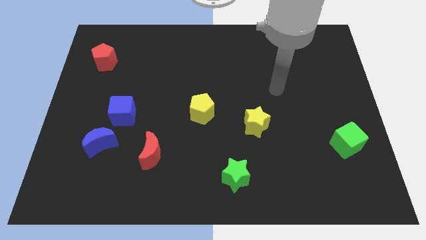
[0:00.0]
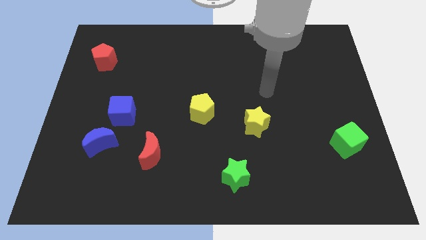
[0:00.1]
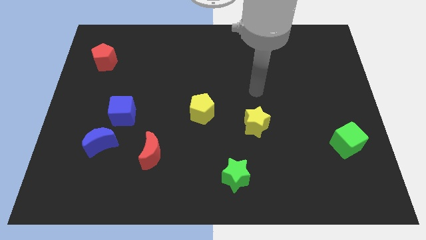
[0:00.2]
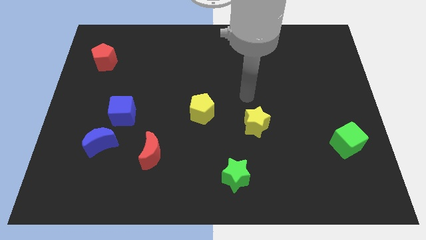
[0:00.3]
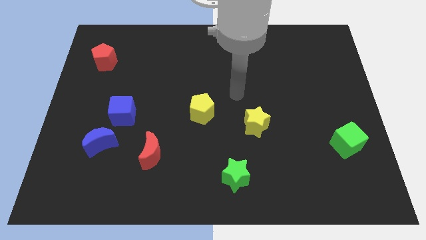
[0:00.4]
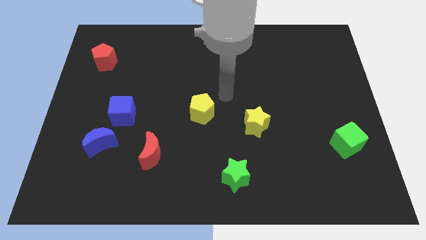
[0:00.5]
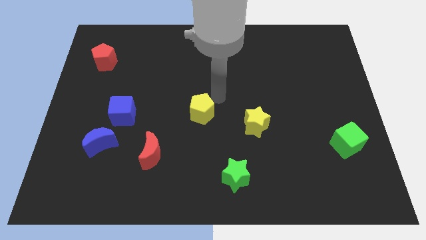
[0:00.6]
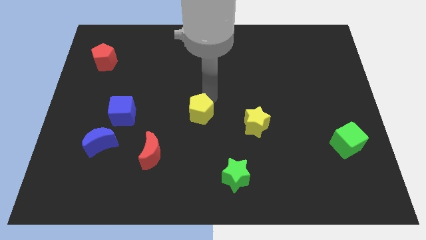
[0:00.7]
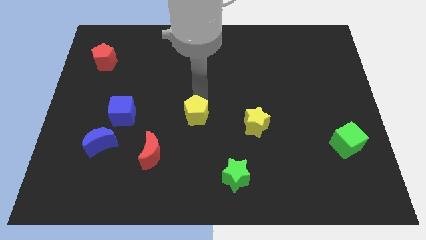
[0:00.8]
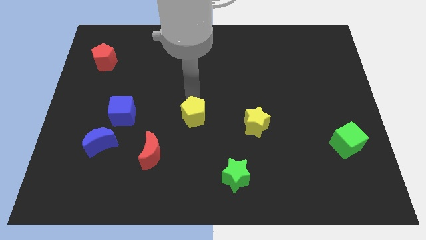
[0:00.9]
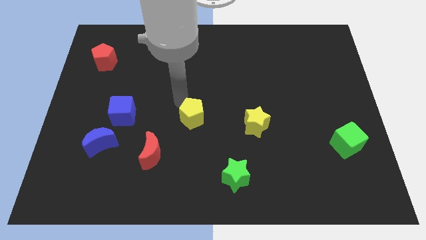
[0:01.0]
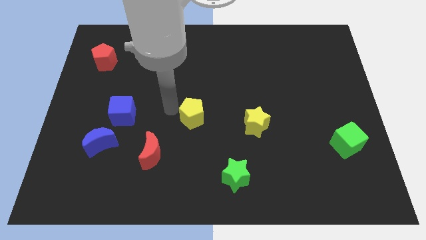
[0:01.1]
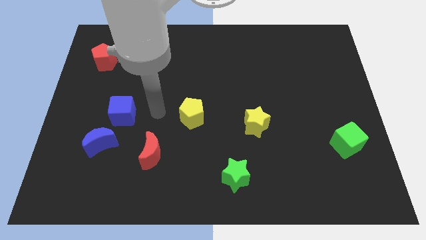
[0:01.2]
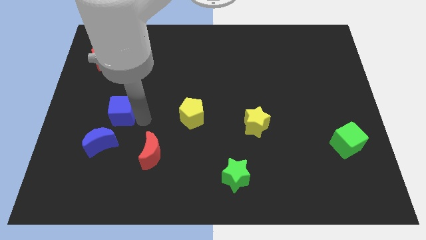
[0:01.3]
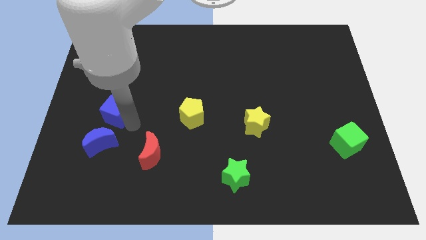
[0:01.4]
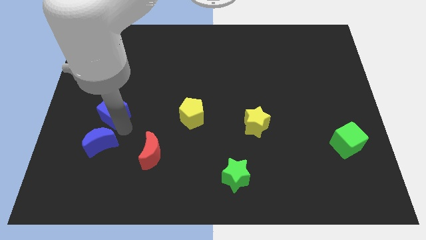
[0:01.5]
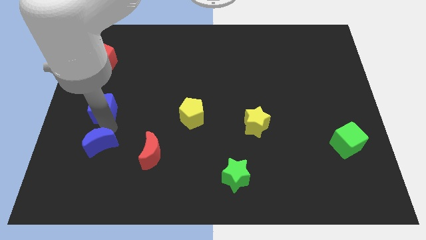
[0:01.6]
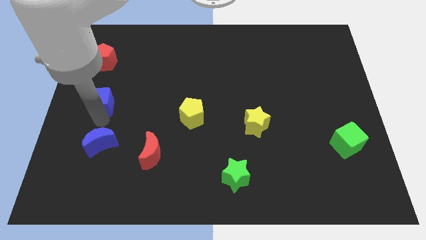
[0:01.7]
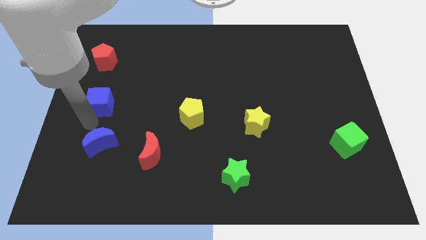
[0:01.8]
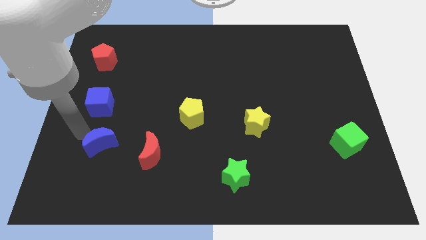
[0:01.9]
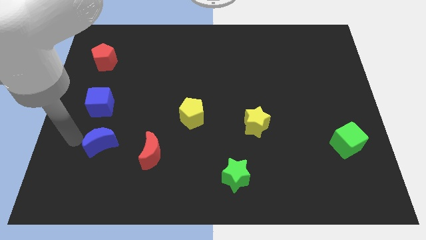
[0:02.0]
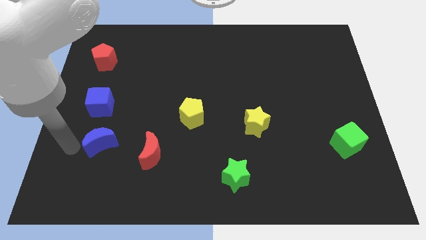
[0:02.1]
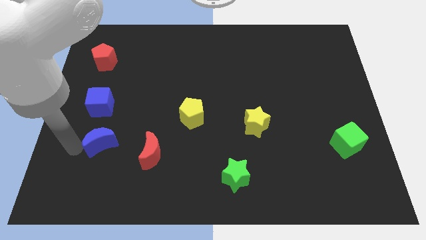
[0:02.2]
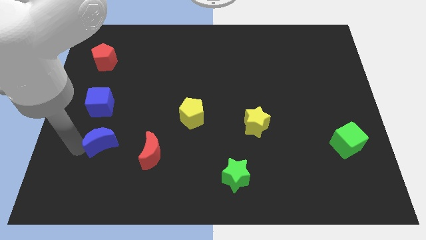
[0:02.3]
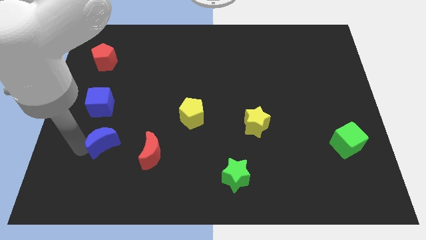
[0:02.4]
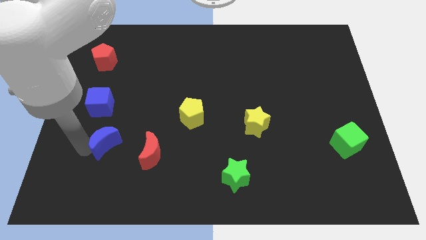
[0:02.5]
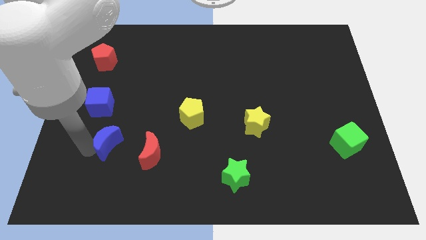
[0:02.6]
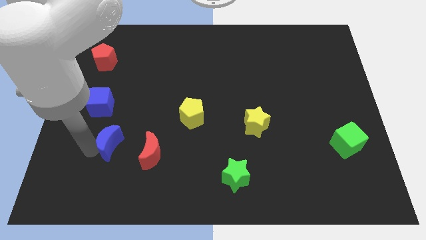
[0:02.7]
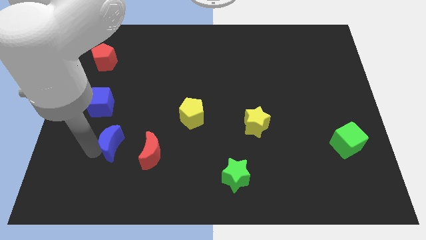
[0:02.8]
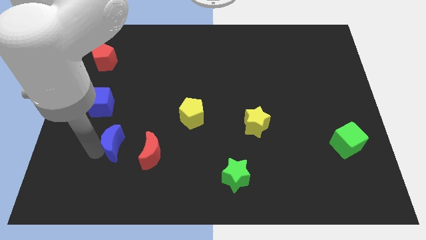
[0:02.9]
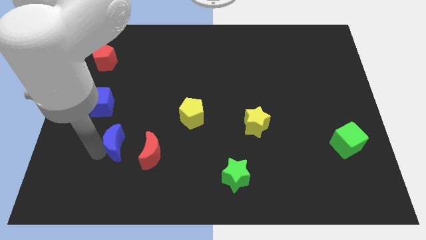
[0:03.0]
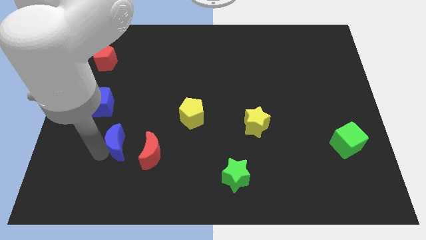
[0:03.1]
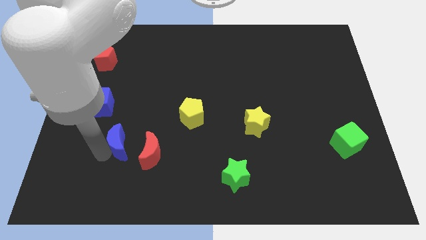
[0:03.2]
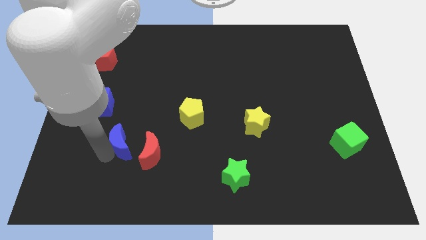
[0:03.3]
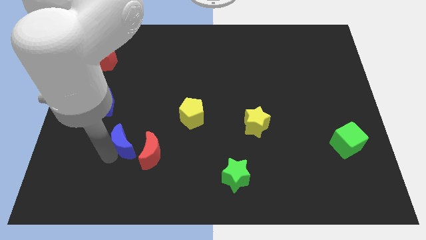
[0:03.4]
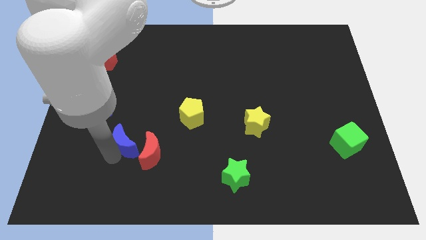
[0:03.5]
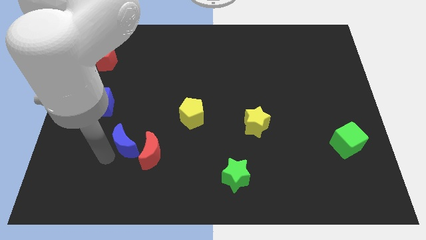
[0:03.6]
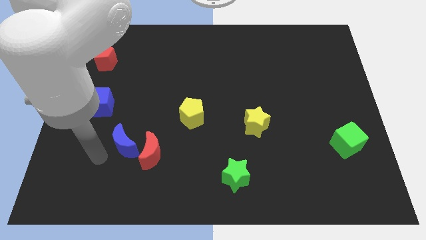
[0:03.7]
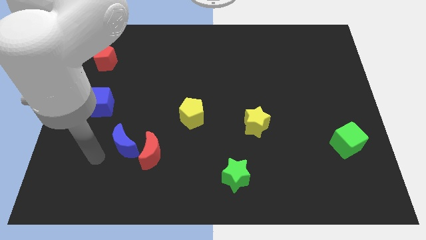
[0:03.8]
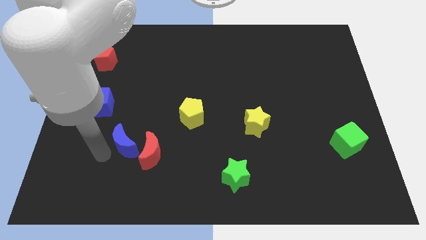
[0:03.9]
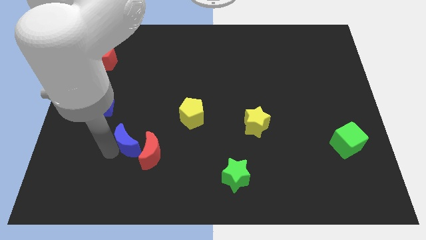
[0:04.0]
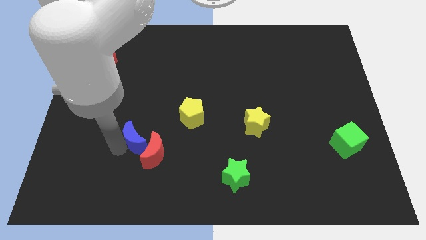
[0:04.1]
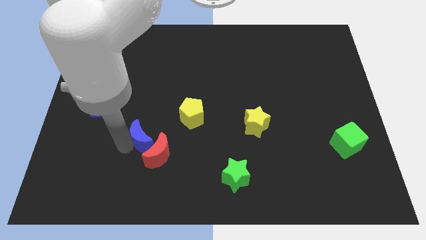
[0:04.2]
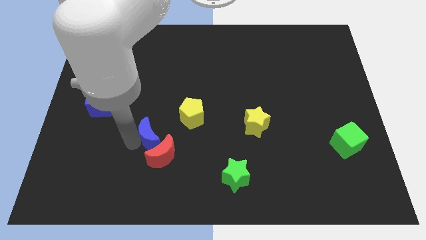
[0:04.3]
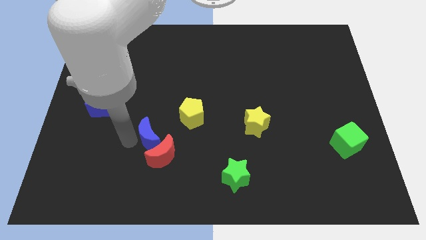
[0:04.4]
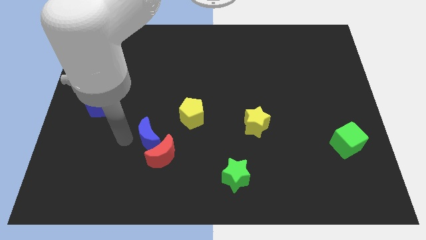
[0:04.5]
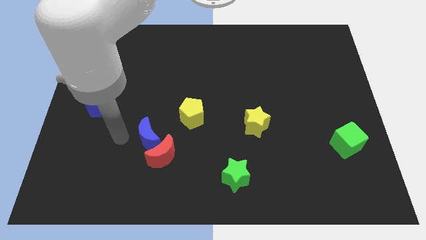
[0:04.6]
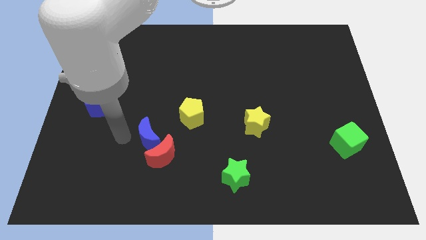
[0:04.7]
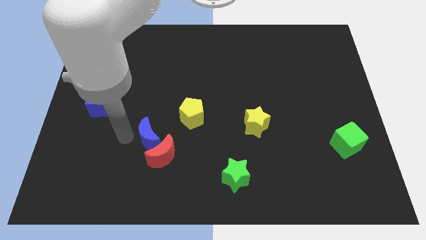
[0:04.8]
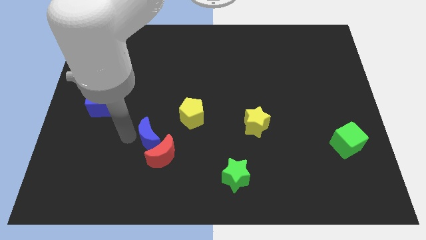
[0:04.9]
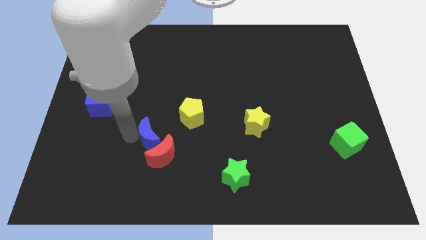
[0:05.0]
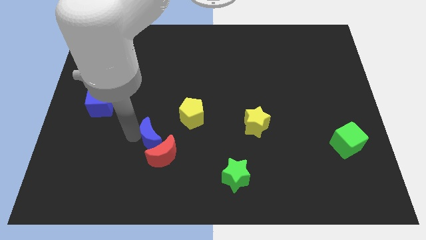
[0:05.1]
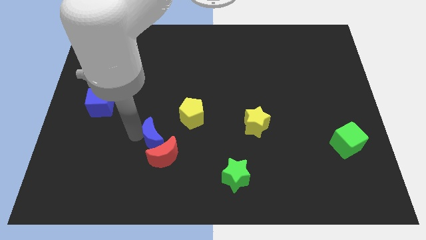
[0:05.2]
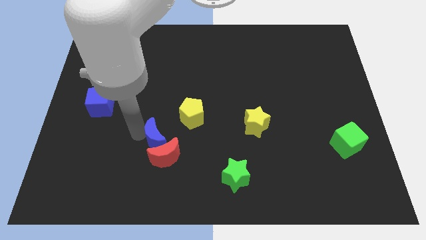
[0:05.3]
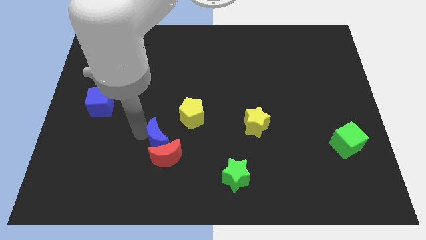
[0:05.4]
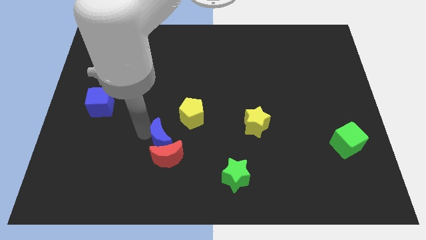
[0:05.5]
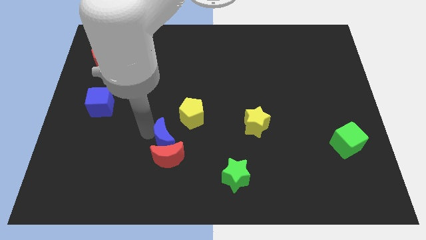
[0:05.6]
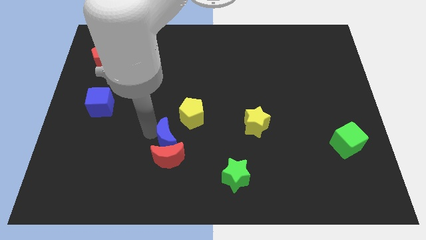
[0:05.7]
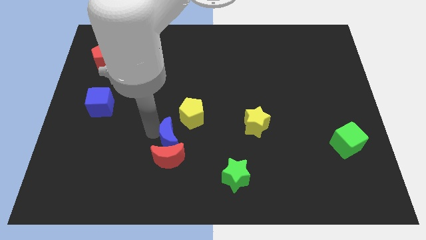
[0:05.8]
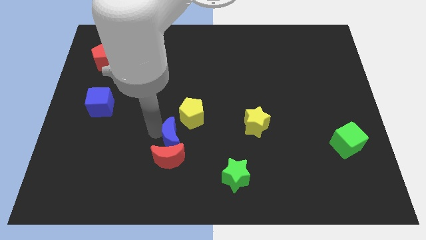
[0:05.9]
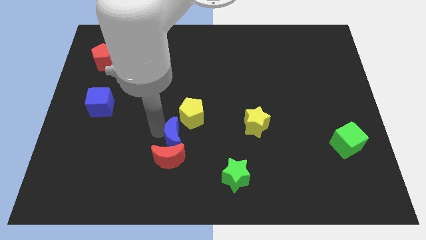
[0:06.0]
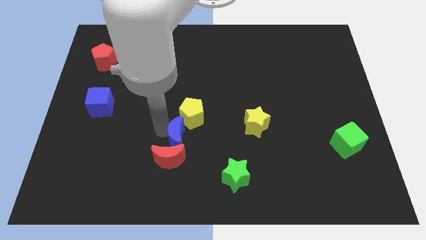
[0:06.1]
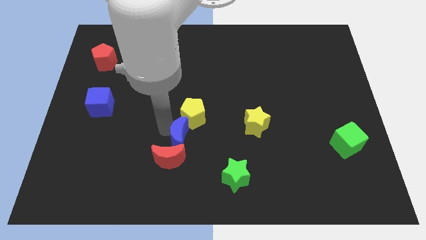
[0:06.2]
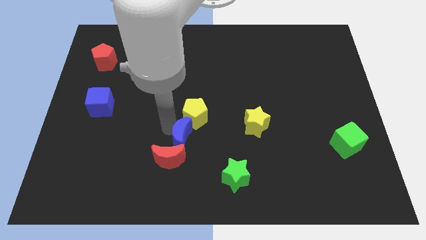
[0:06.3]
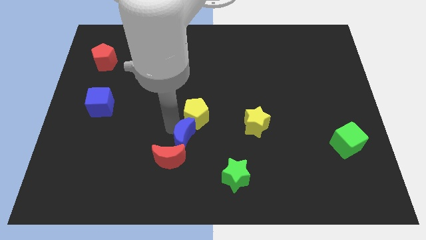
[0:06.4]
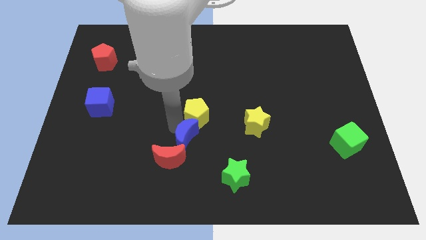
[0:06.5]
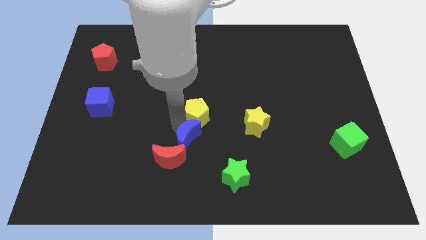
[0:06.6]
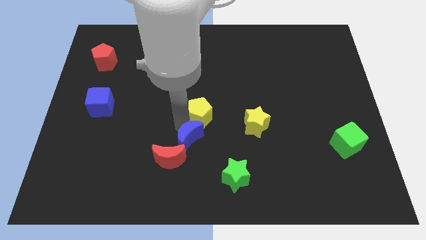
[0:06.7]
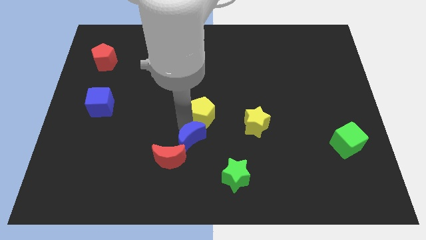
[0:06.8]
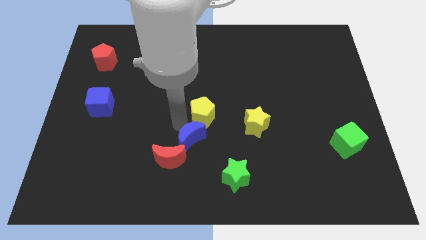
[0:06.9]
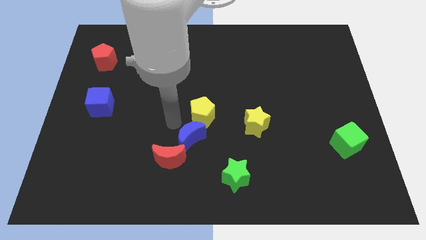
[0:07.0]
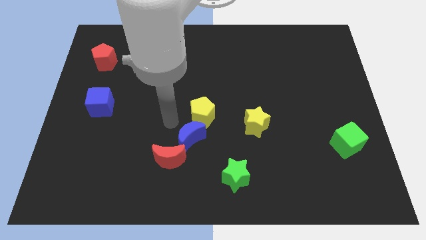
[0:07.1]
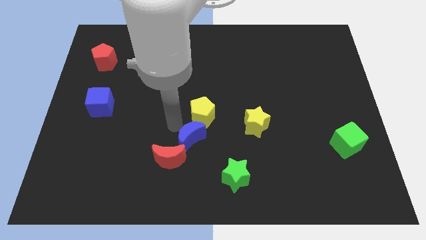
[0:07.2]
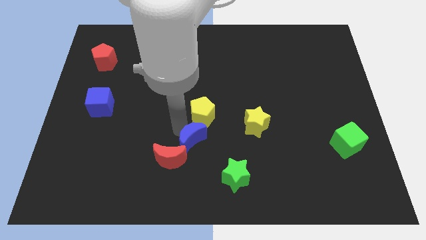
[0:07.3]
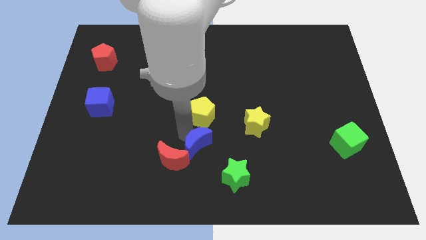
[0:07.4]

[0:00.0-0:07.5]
push the blue moon to the top left of the green star
